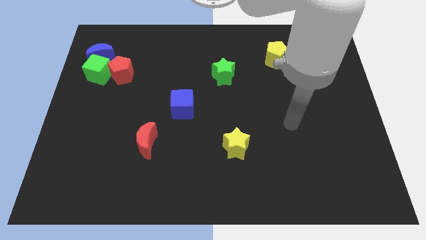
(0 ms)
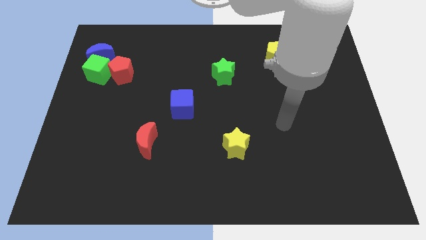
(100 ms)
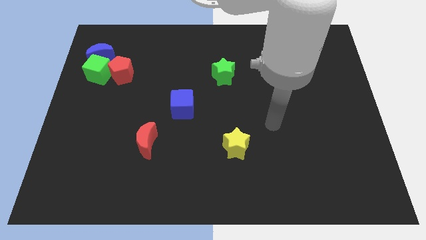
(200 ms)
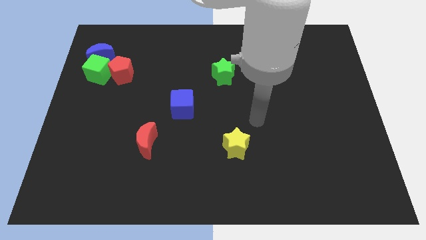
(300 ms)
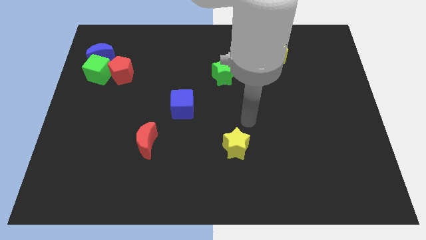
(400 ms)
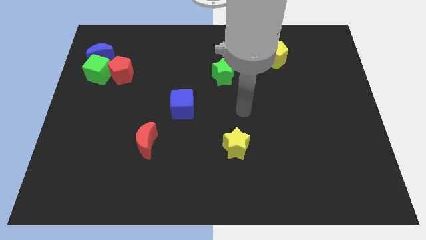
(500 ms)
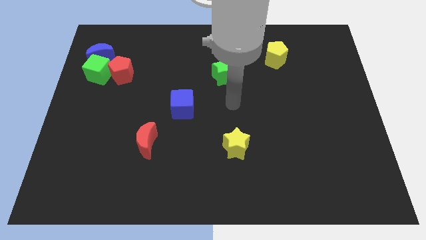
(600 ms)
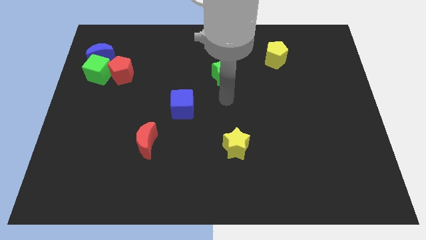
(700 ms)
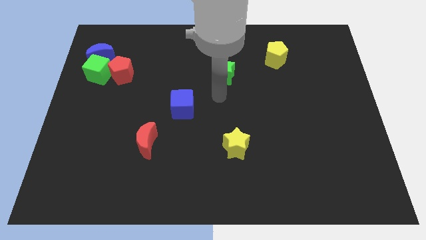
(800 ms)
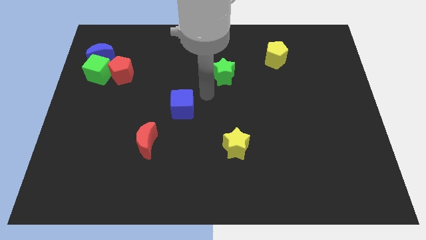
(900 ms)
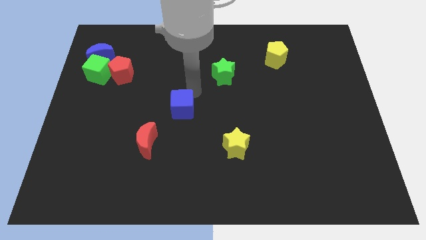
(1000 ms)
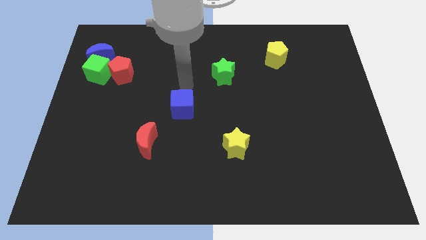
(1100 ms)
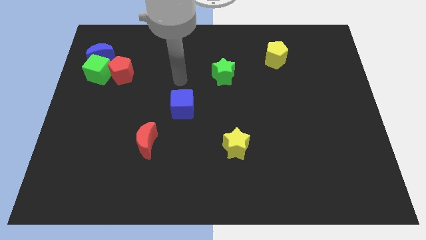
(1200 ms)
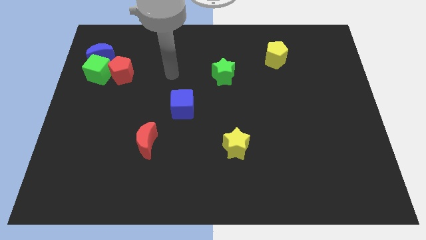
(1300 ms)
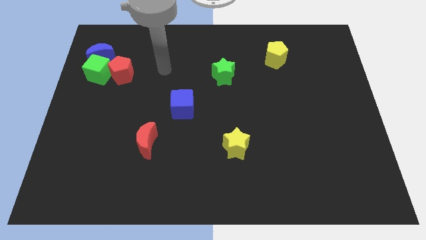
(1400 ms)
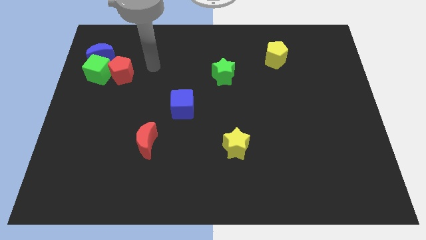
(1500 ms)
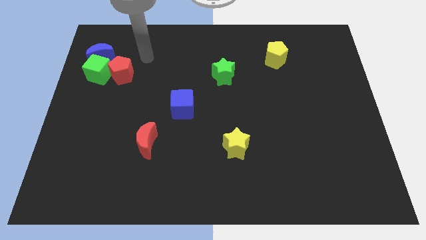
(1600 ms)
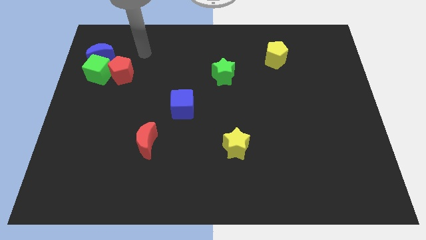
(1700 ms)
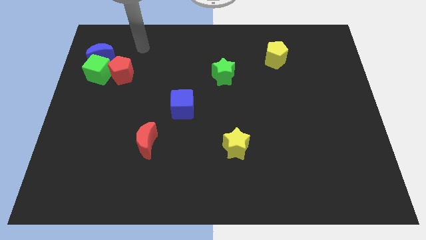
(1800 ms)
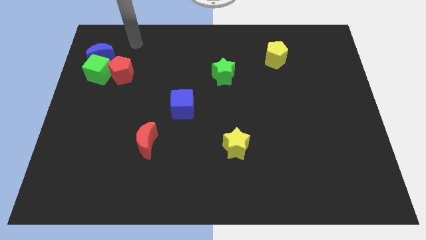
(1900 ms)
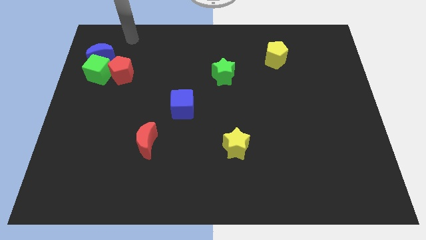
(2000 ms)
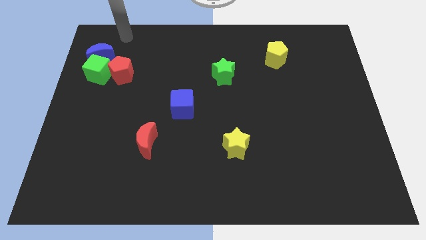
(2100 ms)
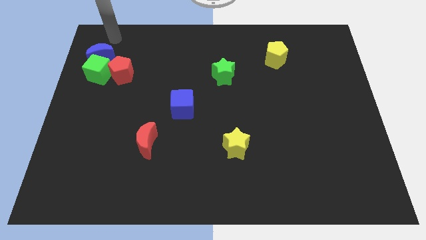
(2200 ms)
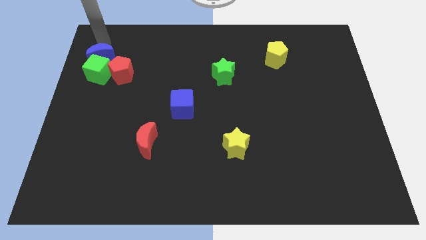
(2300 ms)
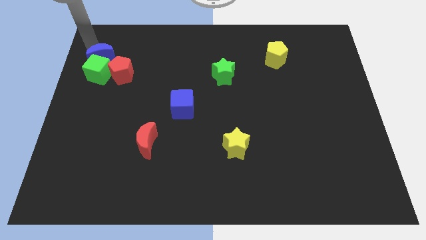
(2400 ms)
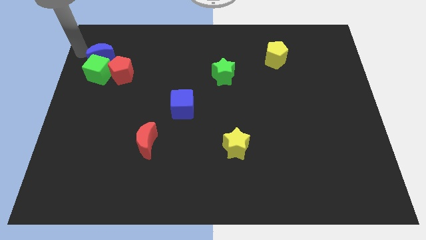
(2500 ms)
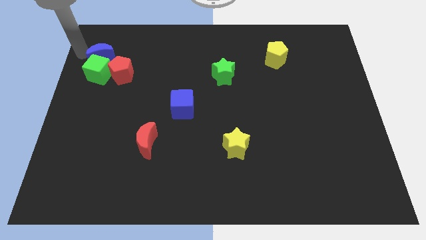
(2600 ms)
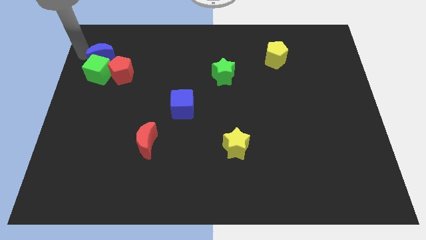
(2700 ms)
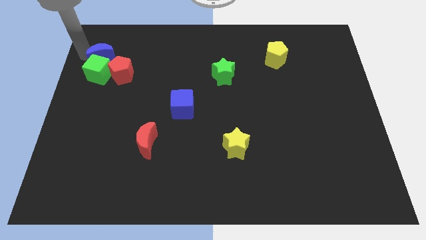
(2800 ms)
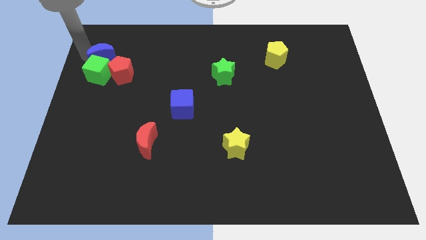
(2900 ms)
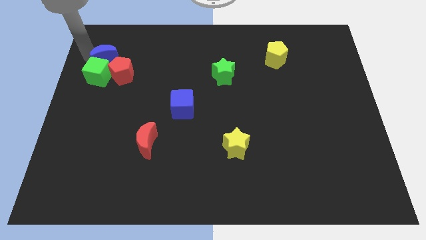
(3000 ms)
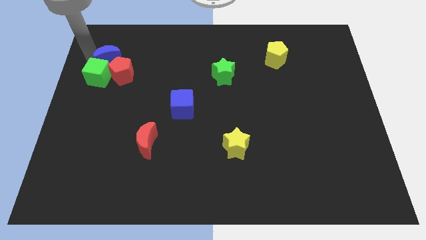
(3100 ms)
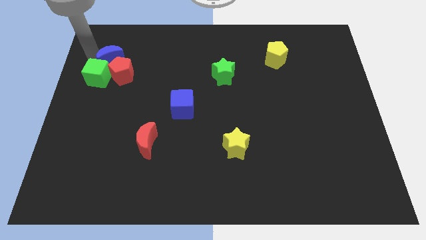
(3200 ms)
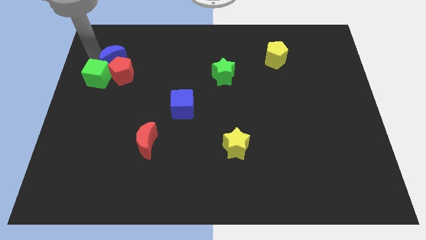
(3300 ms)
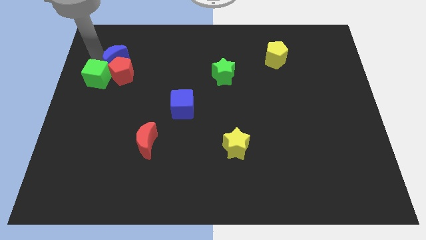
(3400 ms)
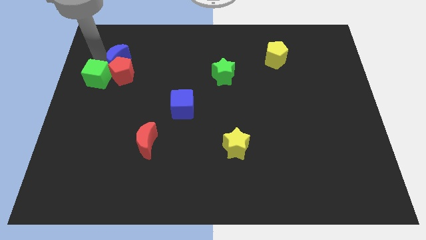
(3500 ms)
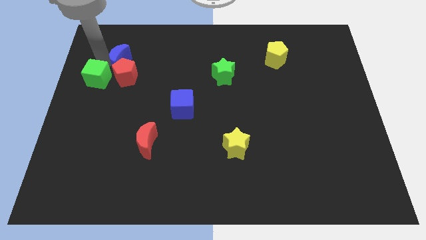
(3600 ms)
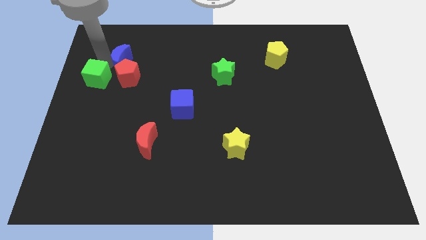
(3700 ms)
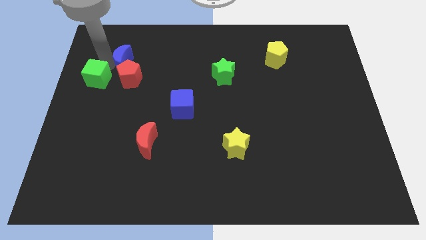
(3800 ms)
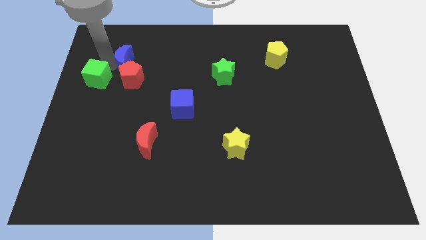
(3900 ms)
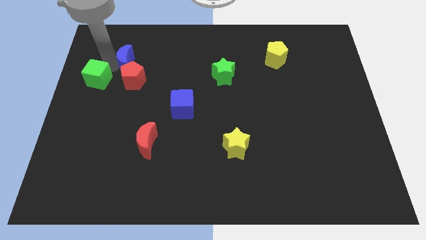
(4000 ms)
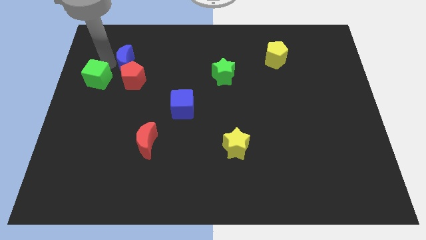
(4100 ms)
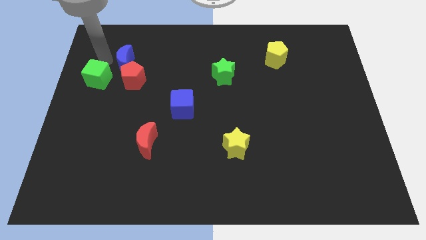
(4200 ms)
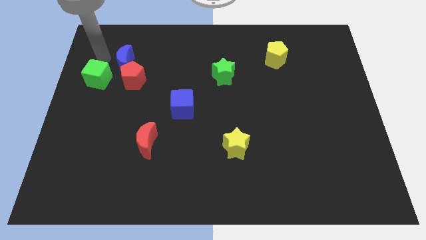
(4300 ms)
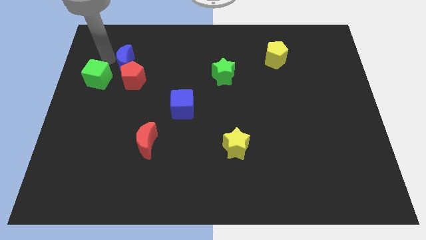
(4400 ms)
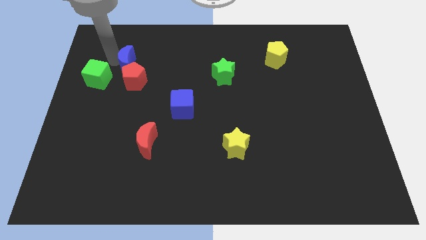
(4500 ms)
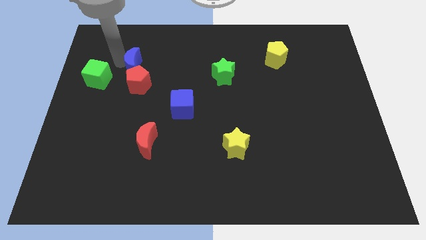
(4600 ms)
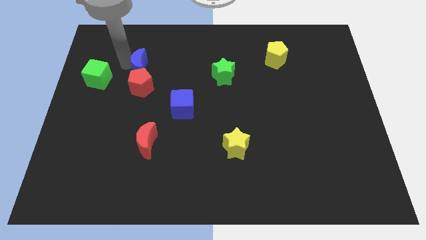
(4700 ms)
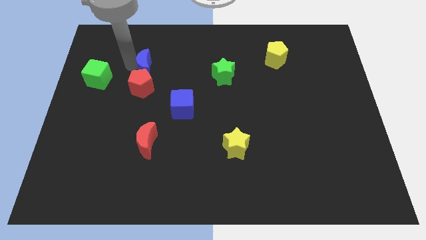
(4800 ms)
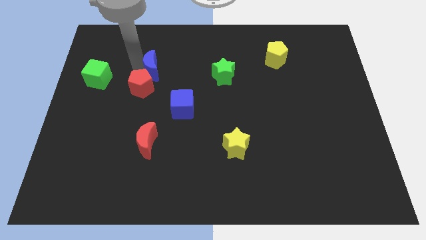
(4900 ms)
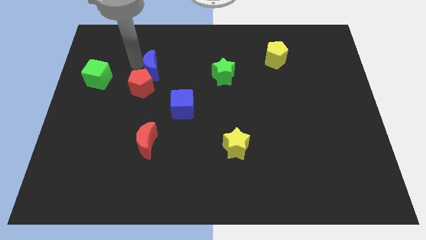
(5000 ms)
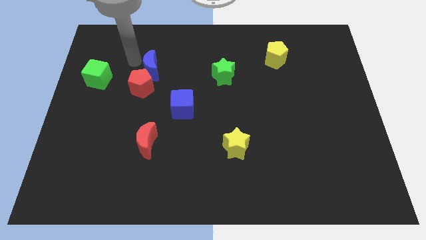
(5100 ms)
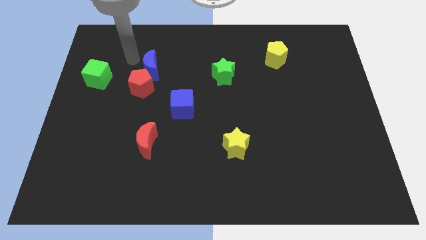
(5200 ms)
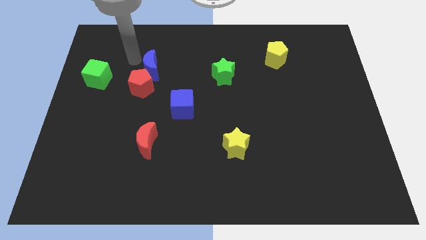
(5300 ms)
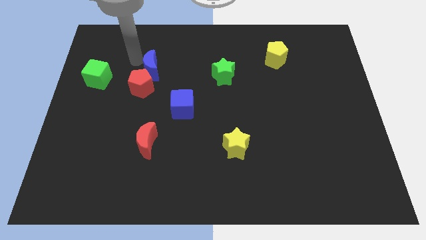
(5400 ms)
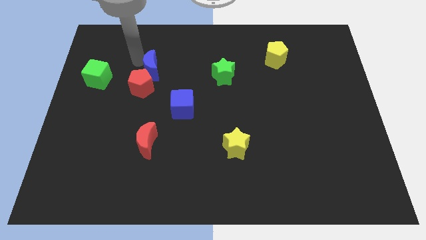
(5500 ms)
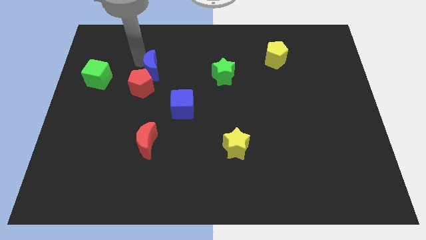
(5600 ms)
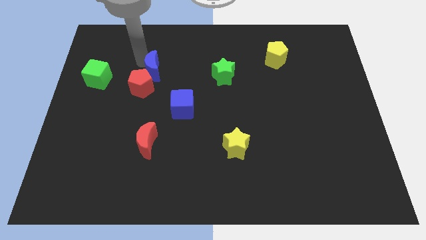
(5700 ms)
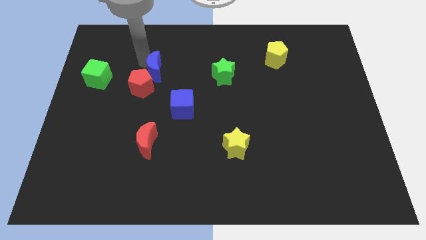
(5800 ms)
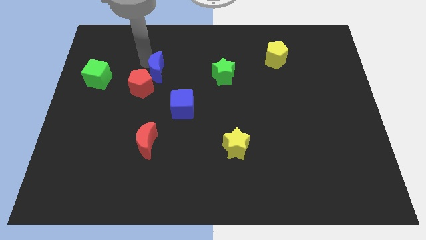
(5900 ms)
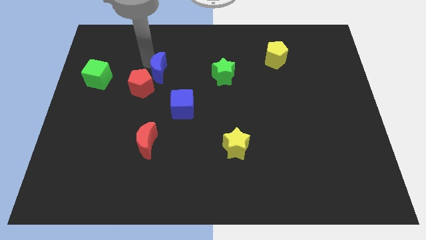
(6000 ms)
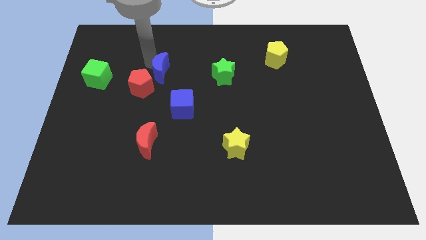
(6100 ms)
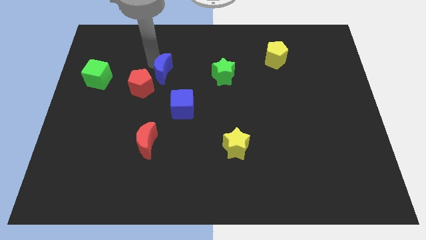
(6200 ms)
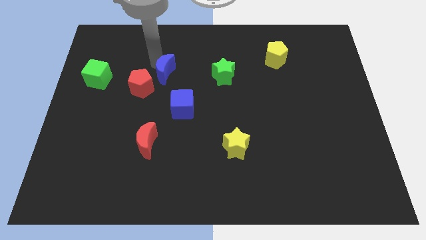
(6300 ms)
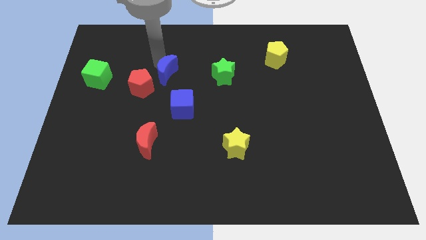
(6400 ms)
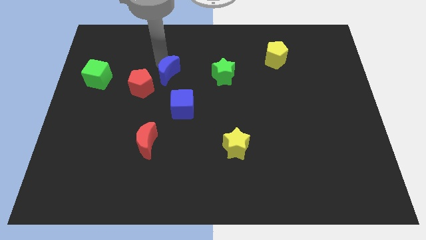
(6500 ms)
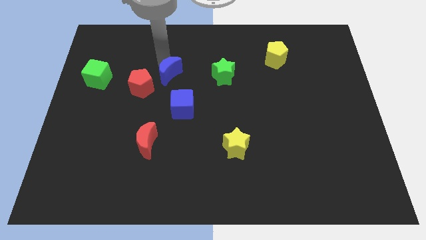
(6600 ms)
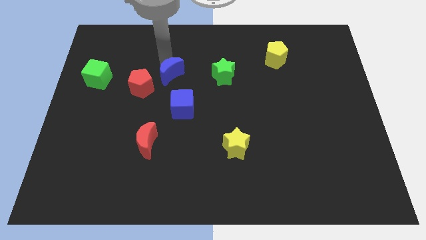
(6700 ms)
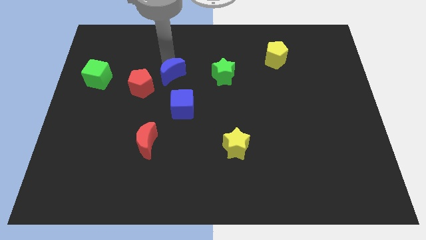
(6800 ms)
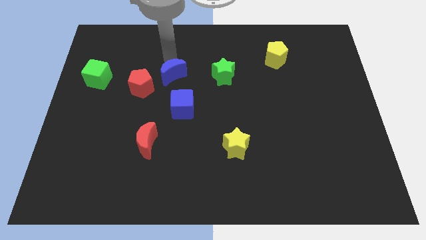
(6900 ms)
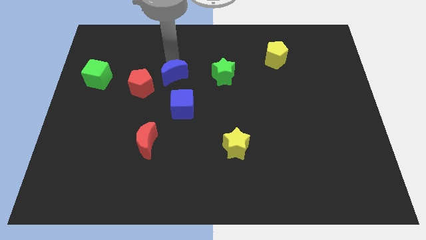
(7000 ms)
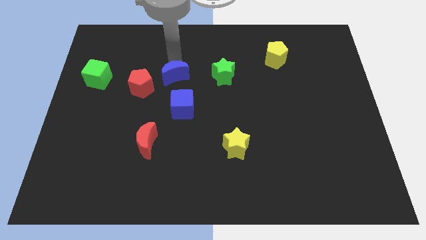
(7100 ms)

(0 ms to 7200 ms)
move the blue moon to the middle of the board
